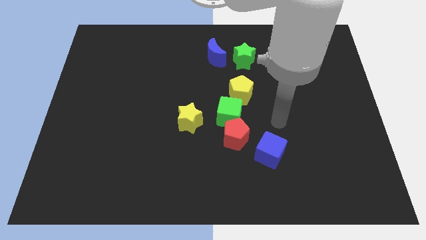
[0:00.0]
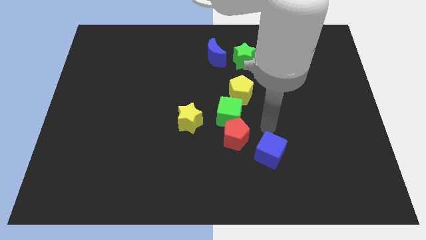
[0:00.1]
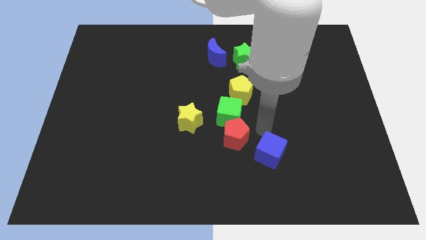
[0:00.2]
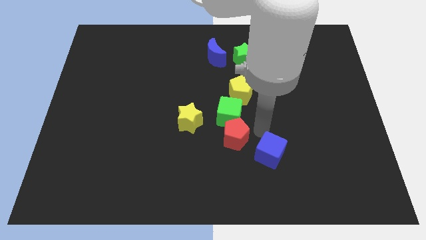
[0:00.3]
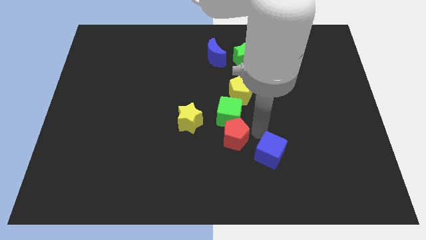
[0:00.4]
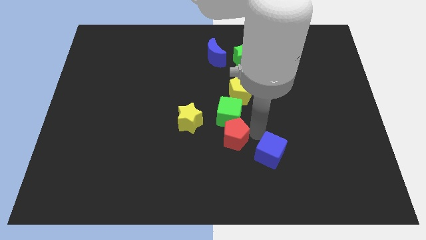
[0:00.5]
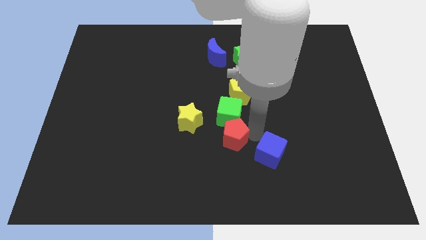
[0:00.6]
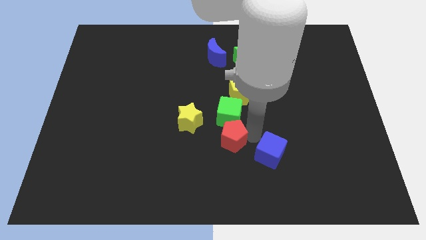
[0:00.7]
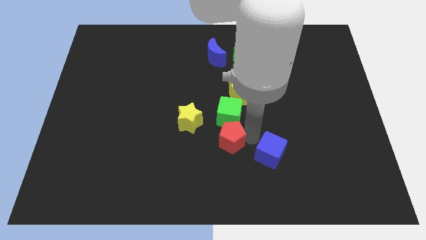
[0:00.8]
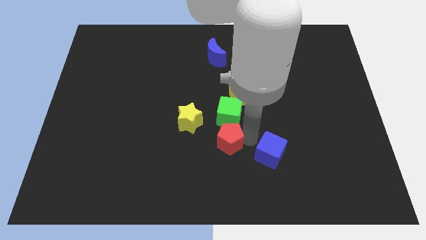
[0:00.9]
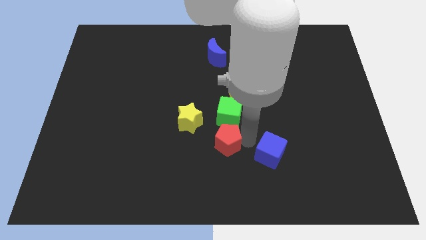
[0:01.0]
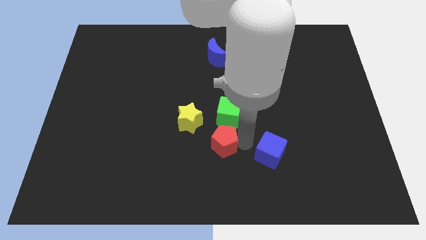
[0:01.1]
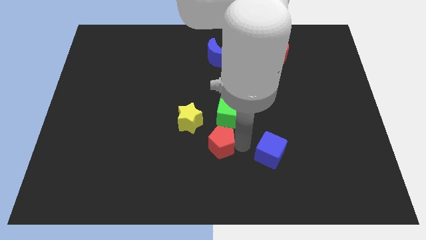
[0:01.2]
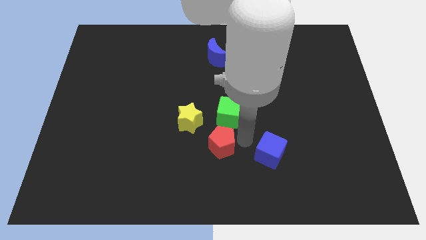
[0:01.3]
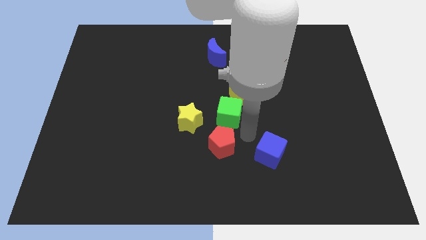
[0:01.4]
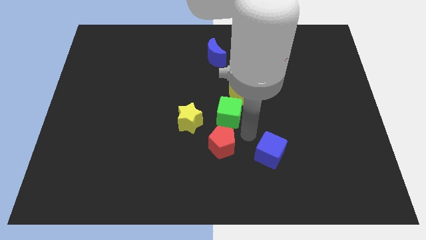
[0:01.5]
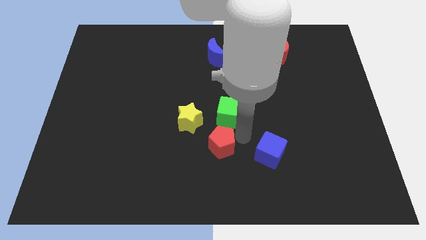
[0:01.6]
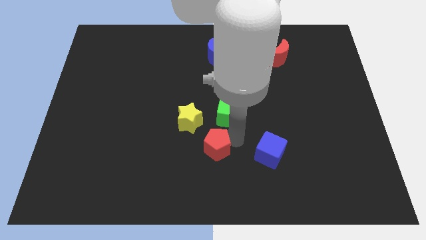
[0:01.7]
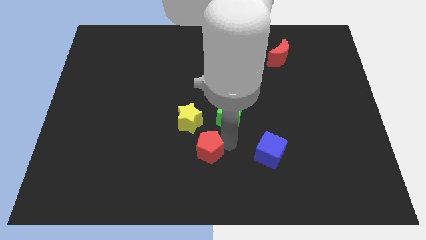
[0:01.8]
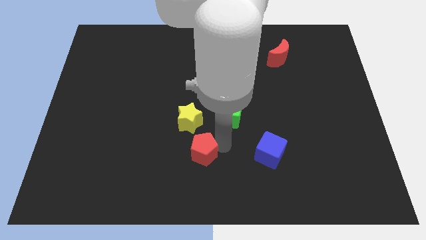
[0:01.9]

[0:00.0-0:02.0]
move the red pentagon away from the green cube and blue cube

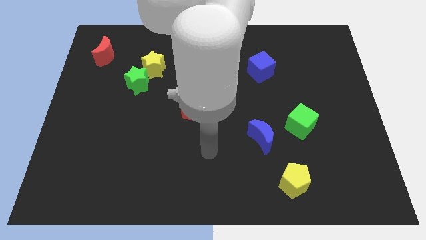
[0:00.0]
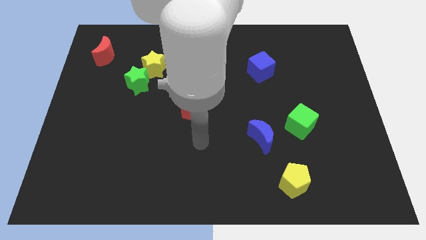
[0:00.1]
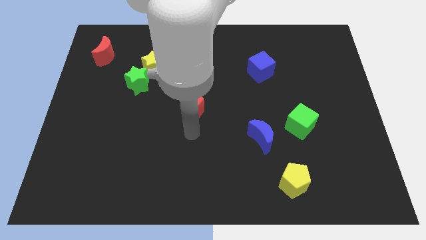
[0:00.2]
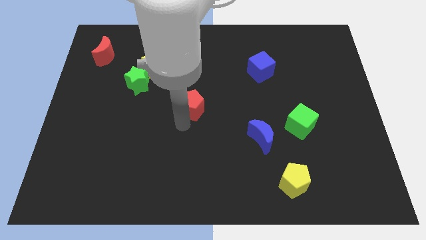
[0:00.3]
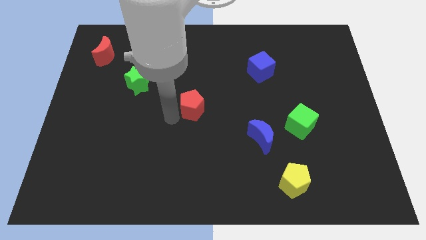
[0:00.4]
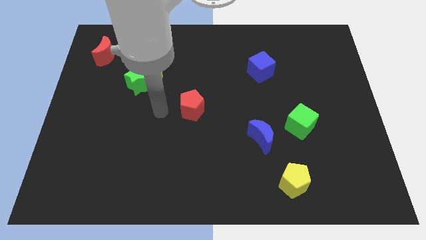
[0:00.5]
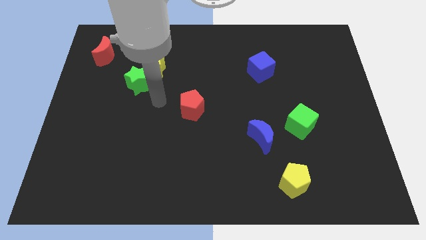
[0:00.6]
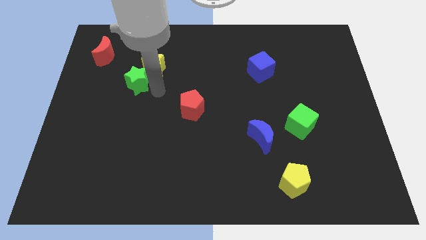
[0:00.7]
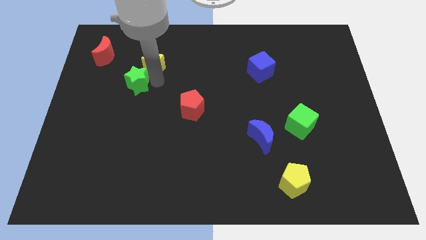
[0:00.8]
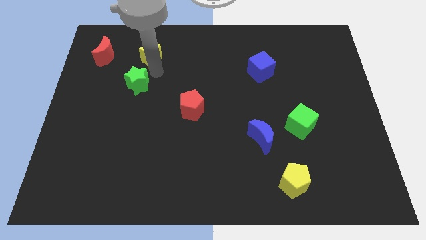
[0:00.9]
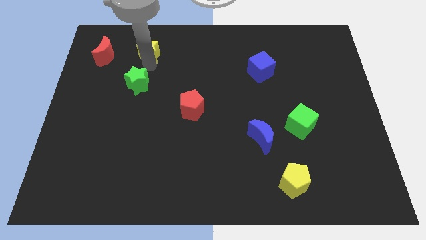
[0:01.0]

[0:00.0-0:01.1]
separate the green star from the yellow star

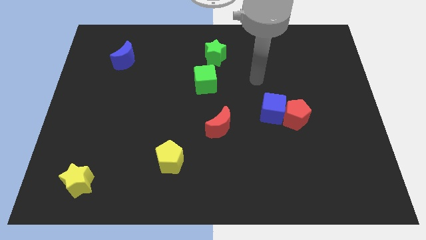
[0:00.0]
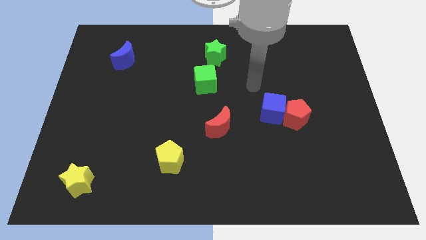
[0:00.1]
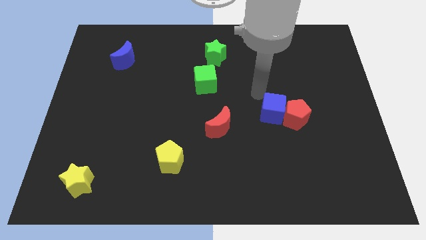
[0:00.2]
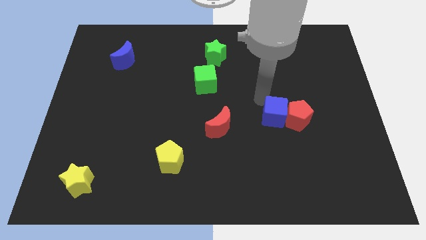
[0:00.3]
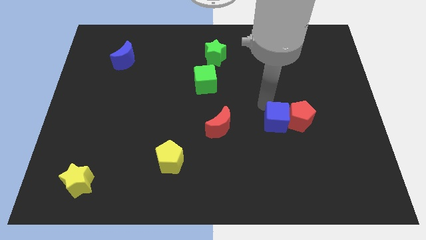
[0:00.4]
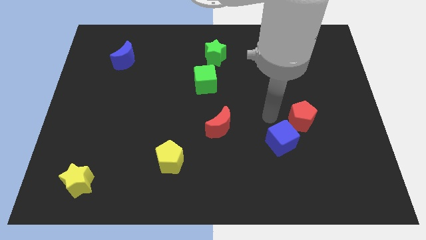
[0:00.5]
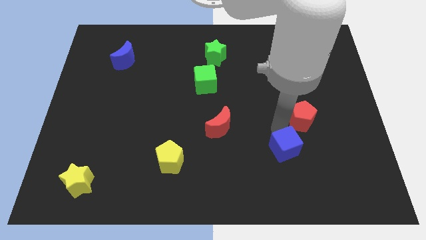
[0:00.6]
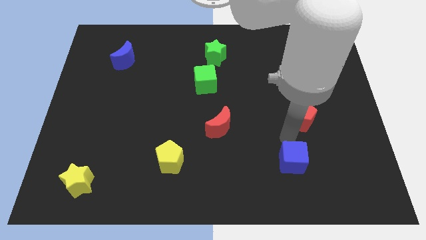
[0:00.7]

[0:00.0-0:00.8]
separate the red pentagon from the blue cube

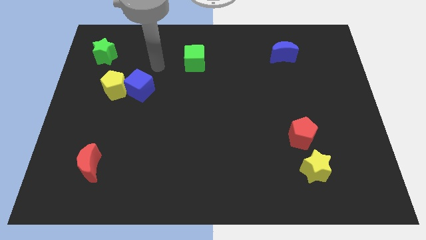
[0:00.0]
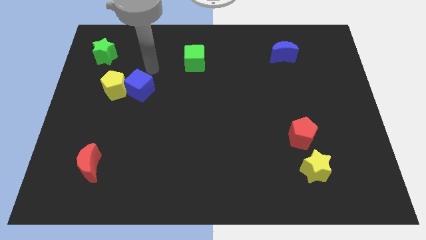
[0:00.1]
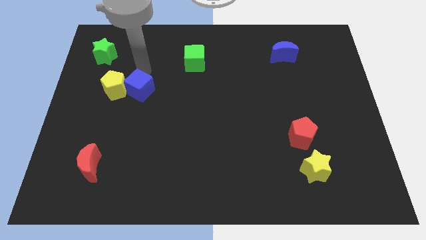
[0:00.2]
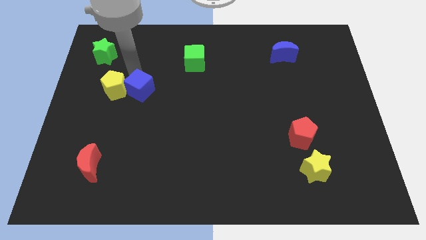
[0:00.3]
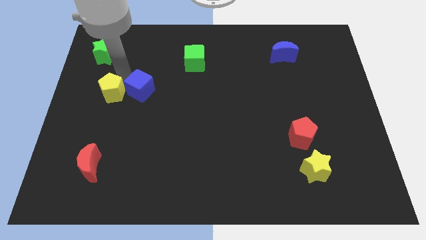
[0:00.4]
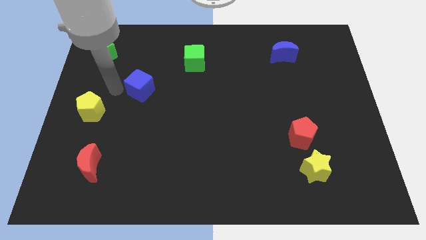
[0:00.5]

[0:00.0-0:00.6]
pull the blue cube apart from the yellow pentagon

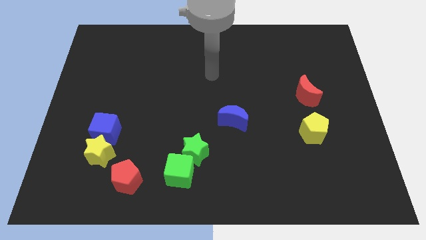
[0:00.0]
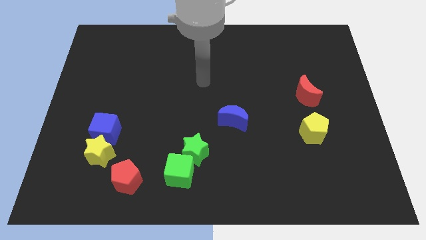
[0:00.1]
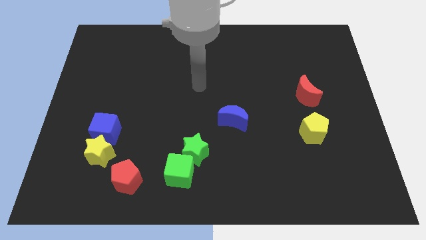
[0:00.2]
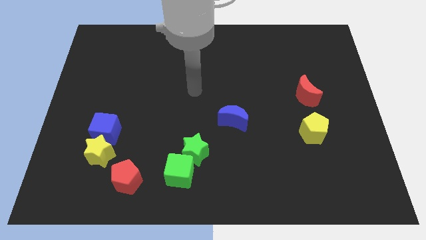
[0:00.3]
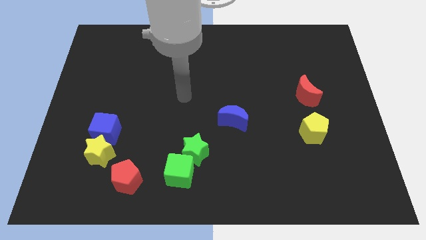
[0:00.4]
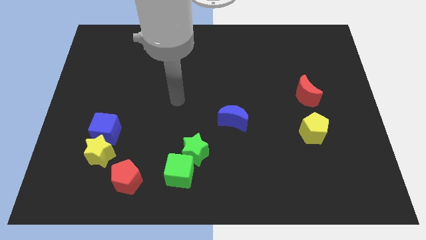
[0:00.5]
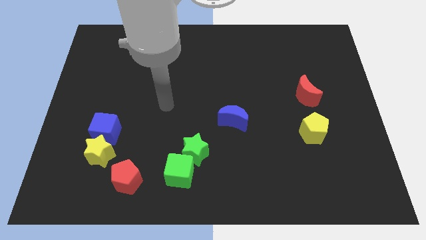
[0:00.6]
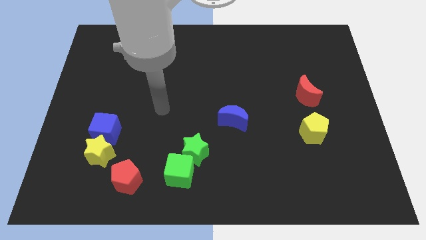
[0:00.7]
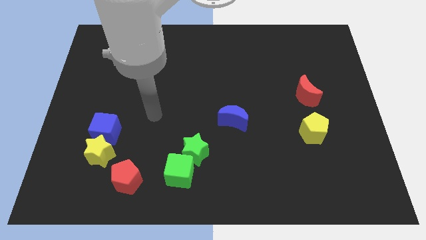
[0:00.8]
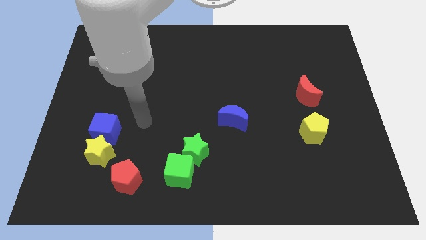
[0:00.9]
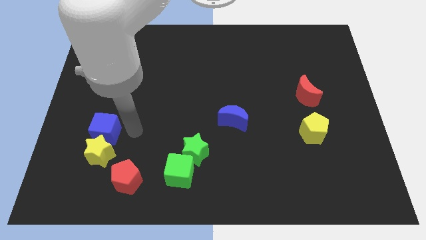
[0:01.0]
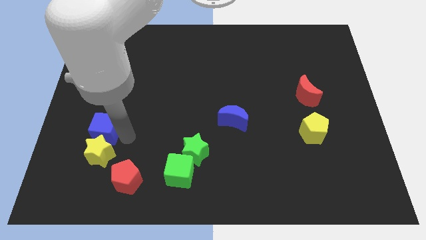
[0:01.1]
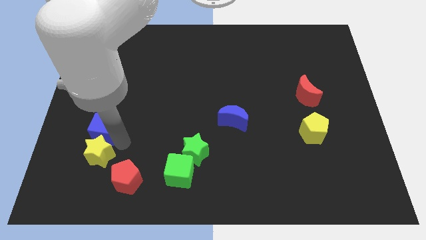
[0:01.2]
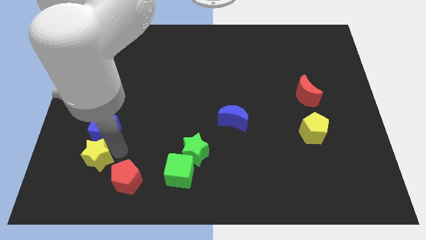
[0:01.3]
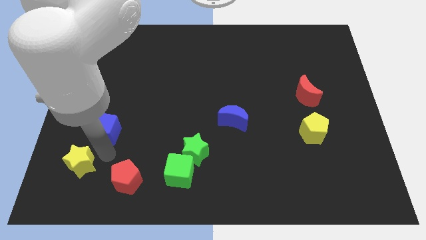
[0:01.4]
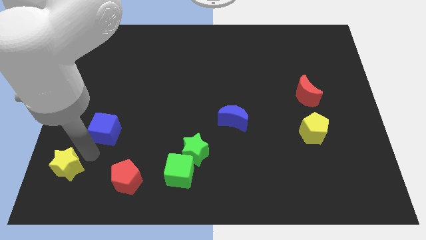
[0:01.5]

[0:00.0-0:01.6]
move the blue cube away from the yellow star

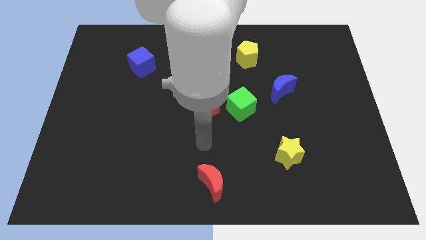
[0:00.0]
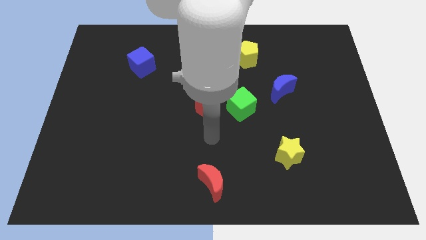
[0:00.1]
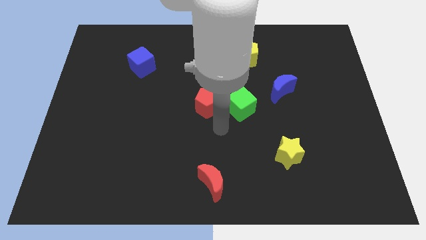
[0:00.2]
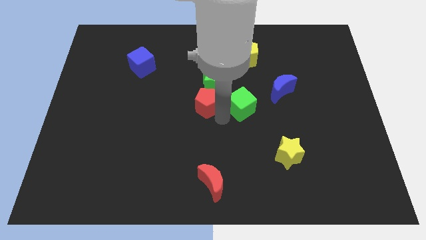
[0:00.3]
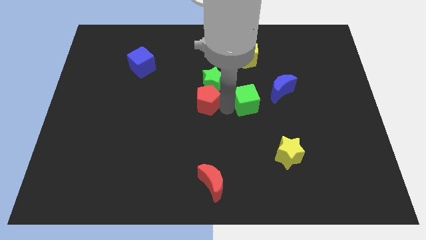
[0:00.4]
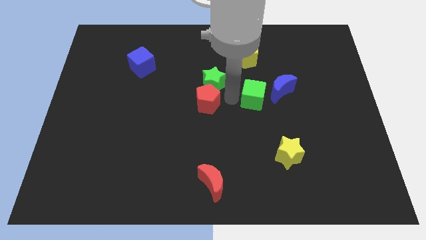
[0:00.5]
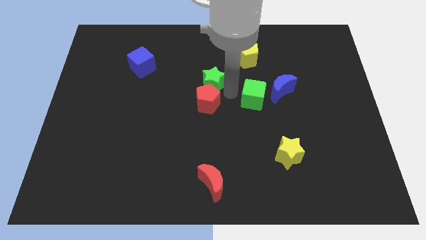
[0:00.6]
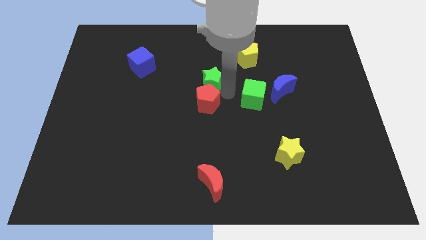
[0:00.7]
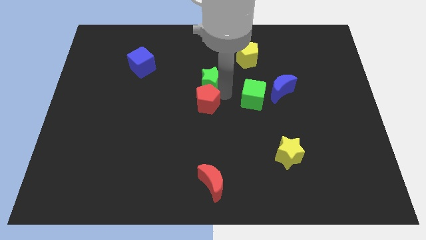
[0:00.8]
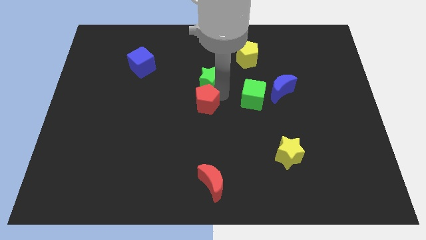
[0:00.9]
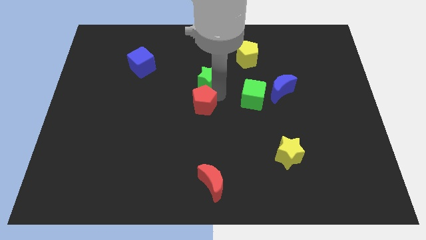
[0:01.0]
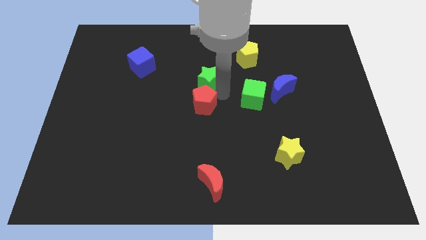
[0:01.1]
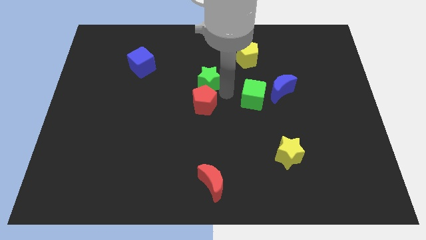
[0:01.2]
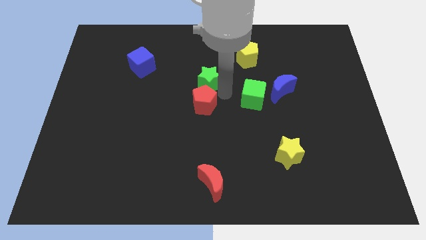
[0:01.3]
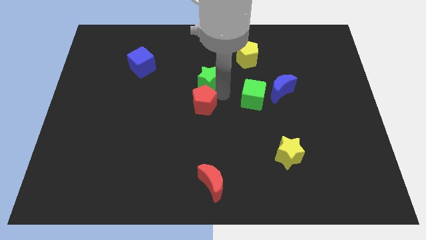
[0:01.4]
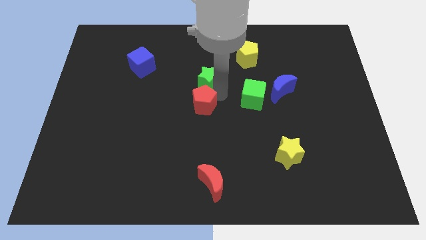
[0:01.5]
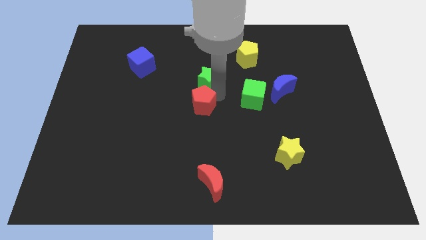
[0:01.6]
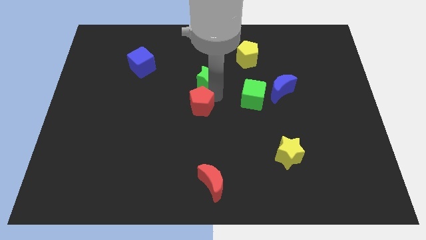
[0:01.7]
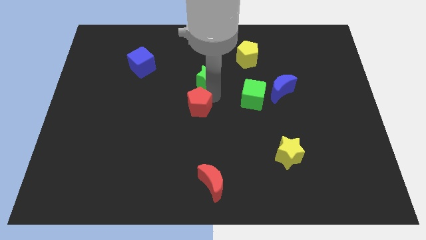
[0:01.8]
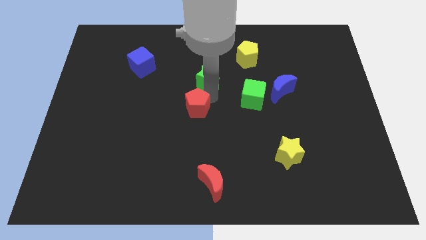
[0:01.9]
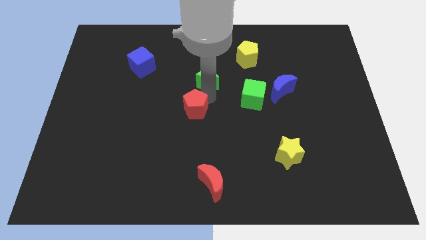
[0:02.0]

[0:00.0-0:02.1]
move the red pentagon away from the green star and green cube

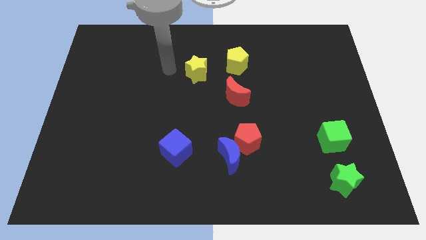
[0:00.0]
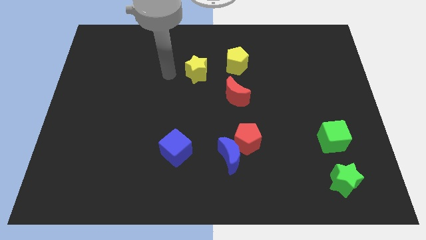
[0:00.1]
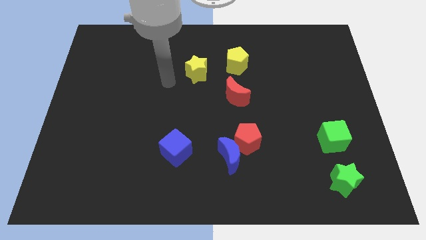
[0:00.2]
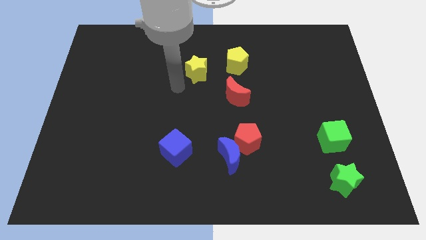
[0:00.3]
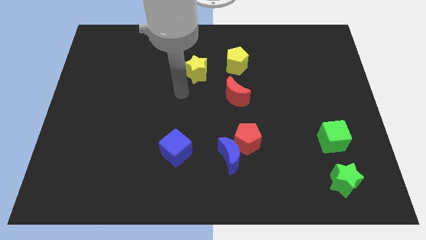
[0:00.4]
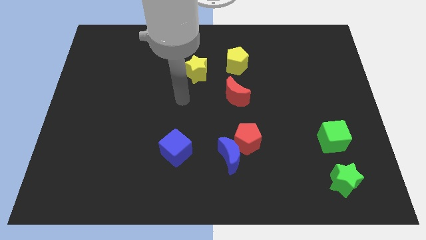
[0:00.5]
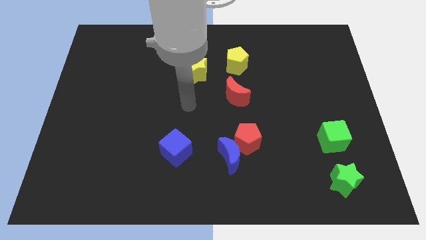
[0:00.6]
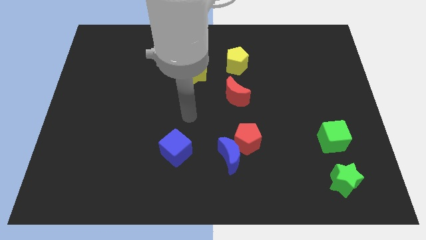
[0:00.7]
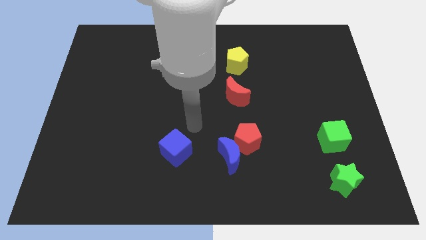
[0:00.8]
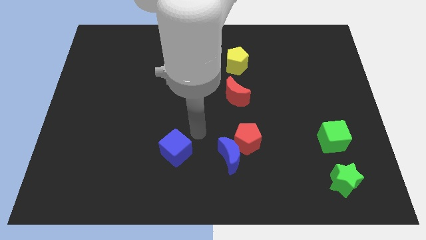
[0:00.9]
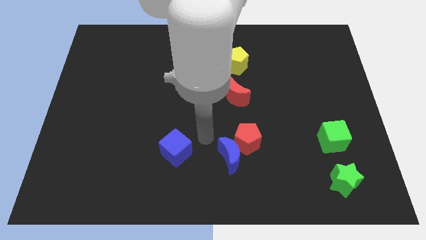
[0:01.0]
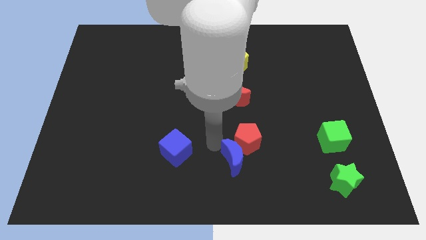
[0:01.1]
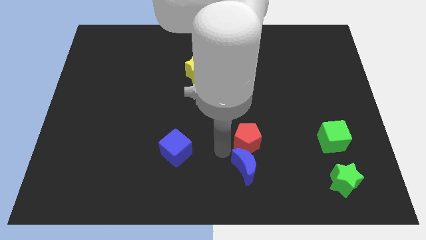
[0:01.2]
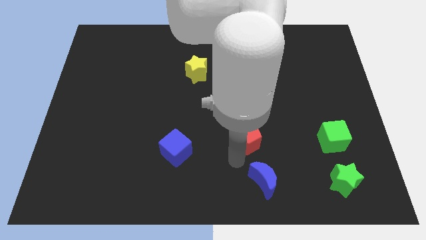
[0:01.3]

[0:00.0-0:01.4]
separate the red pentagon from the blue moon
